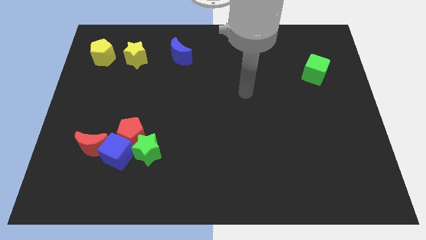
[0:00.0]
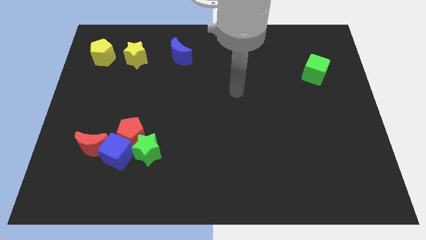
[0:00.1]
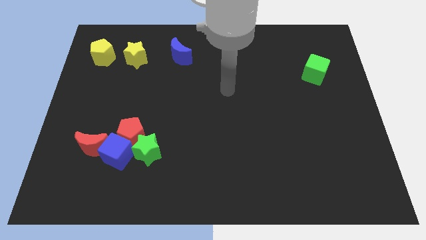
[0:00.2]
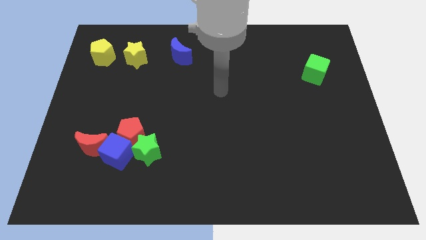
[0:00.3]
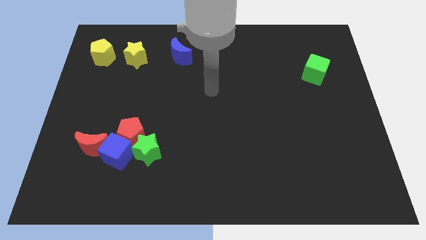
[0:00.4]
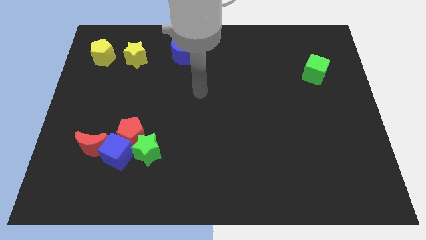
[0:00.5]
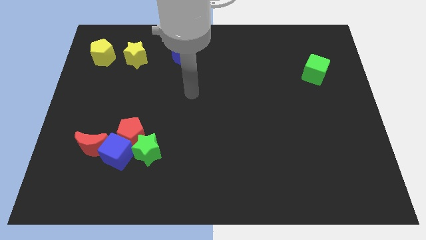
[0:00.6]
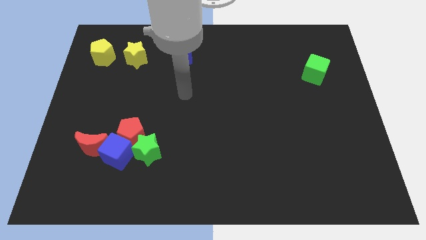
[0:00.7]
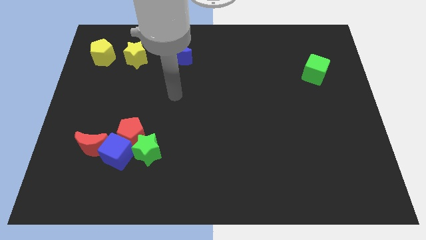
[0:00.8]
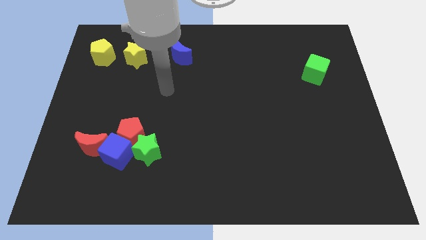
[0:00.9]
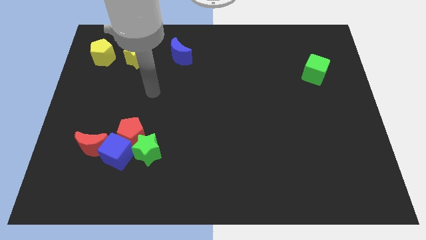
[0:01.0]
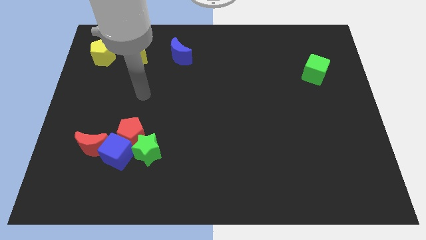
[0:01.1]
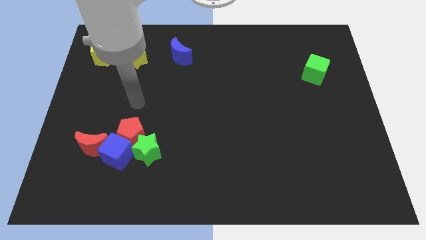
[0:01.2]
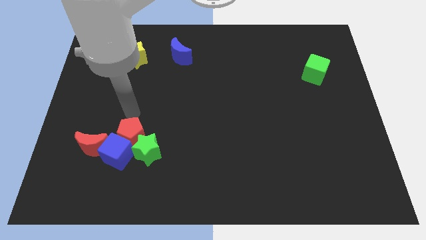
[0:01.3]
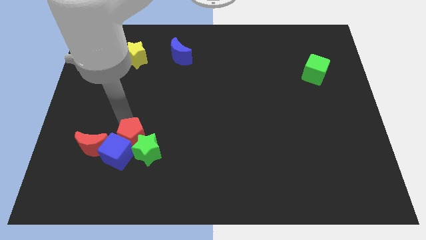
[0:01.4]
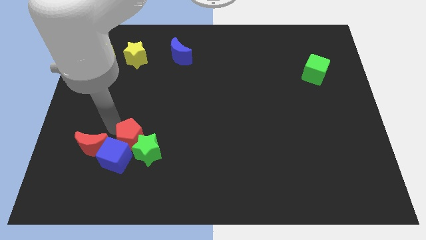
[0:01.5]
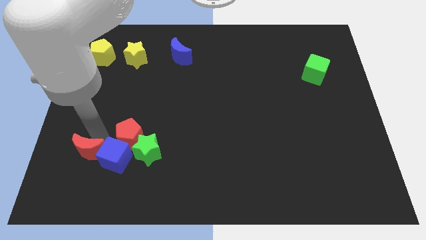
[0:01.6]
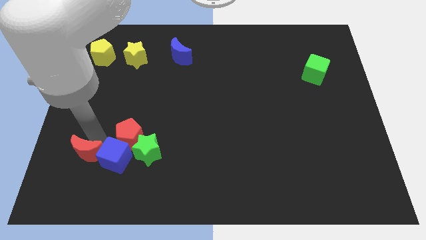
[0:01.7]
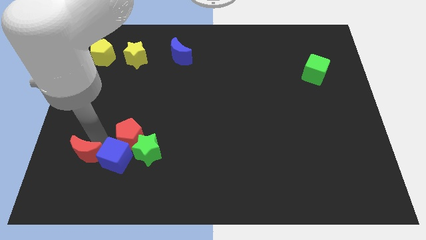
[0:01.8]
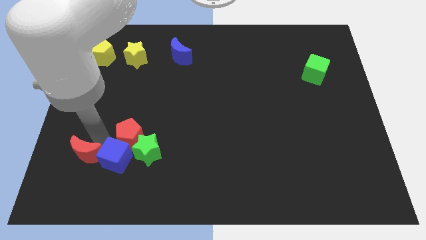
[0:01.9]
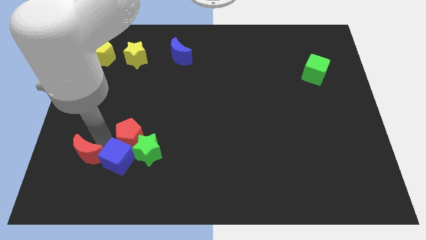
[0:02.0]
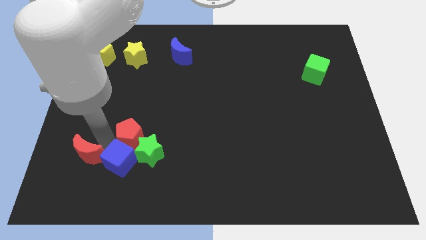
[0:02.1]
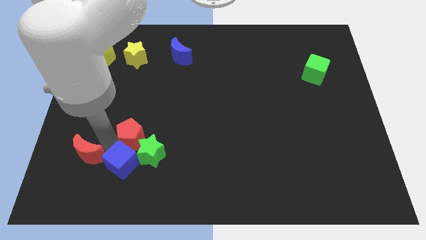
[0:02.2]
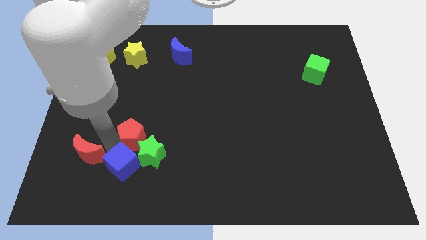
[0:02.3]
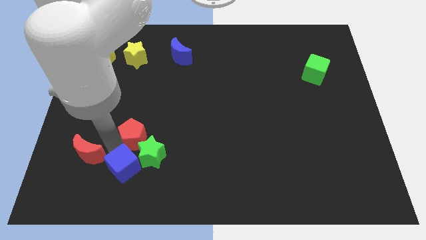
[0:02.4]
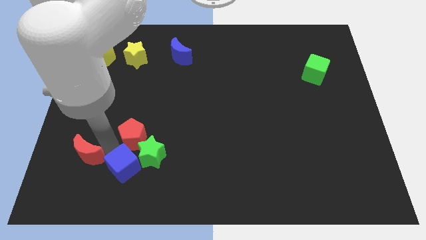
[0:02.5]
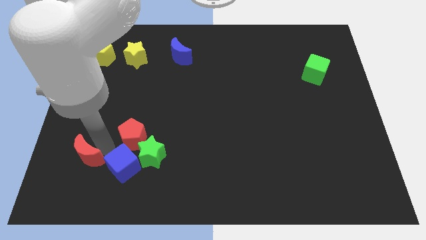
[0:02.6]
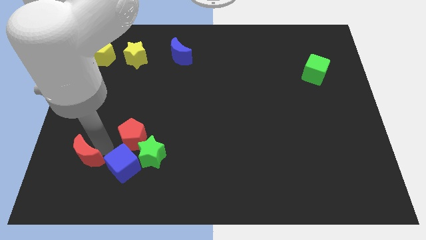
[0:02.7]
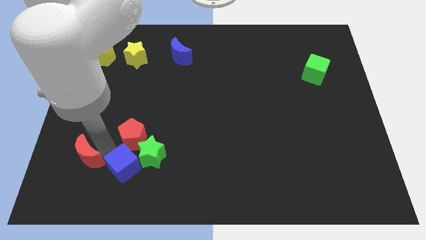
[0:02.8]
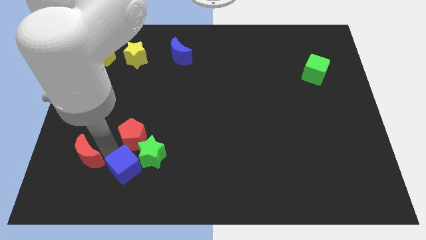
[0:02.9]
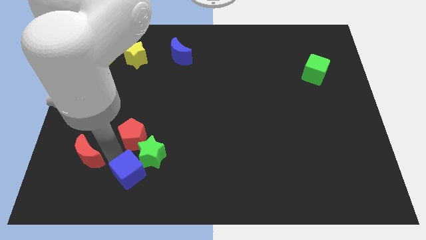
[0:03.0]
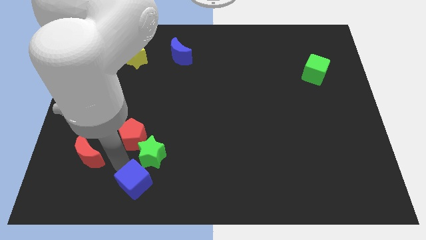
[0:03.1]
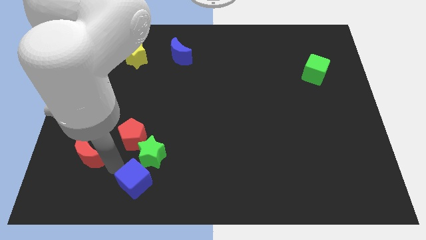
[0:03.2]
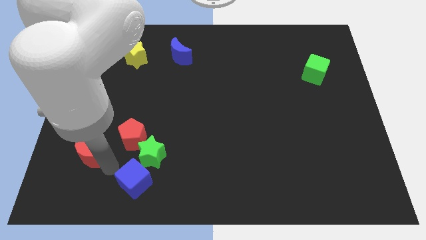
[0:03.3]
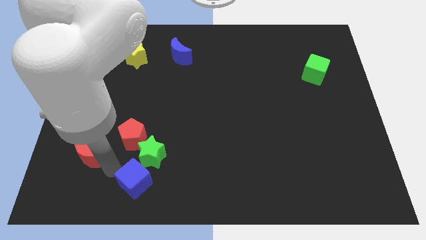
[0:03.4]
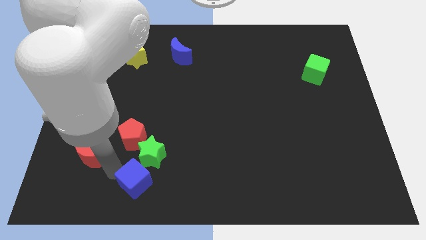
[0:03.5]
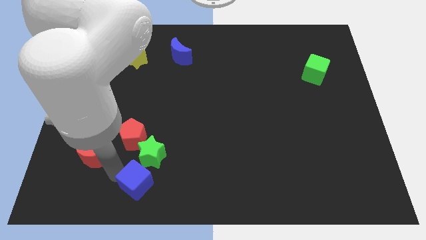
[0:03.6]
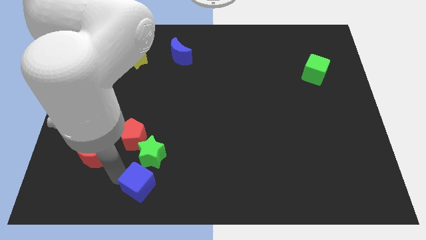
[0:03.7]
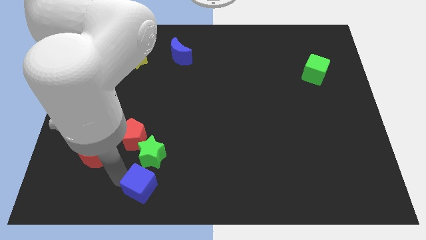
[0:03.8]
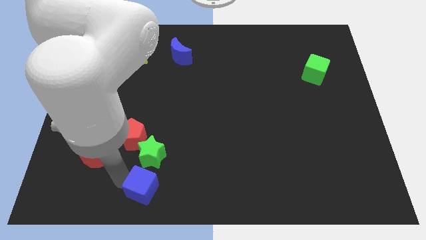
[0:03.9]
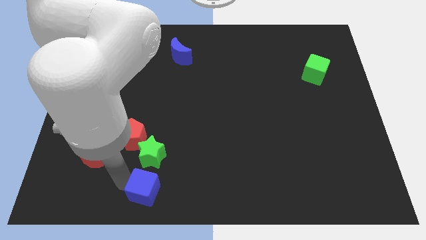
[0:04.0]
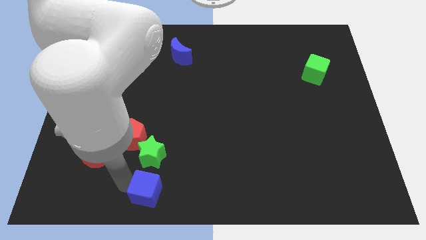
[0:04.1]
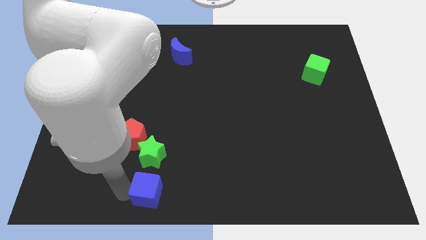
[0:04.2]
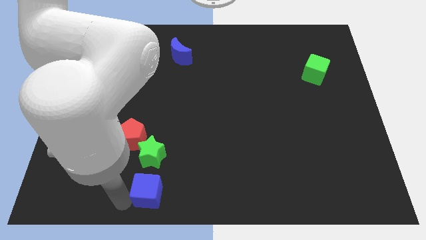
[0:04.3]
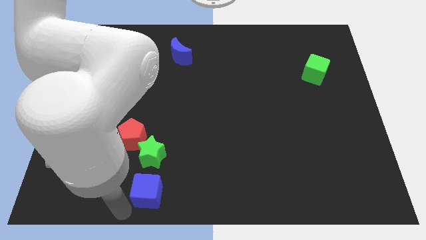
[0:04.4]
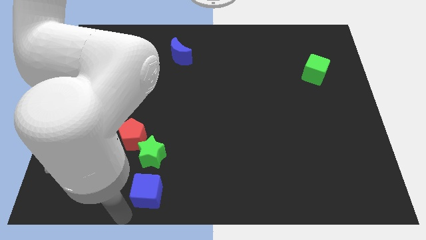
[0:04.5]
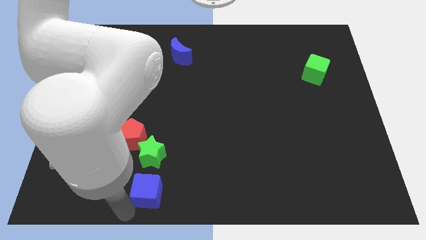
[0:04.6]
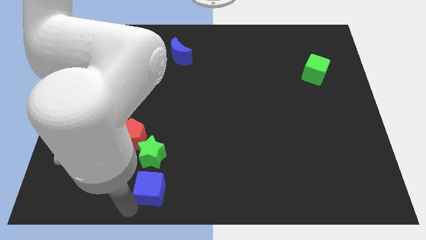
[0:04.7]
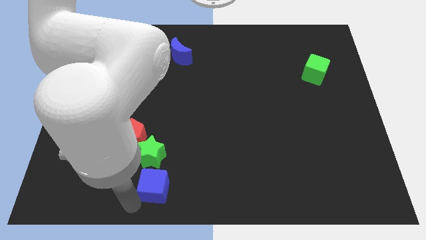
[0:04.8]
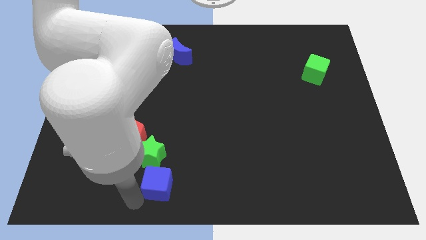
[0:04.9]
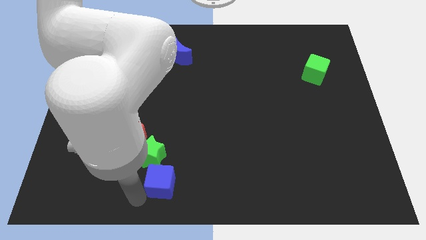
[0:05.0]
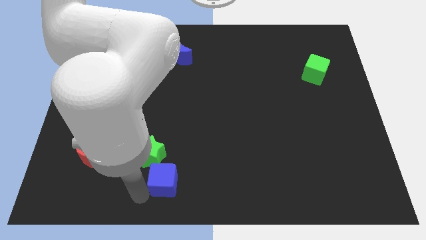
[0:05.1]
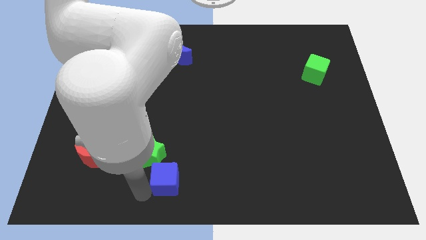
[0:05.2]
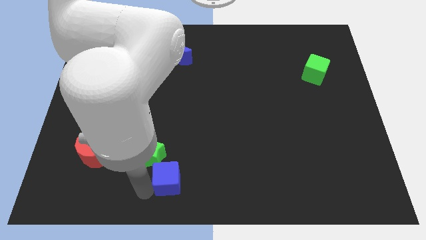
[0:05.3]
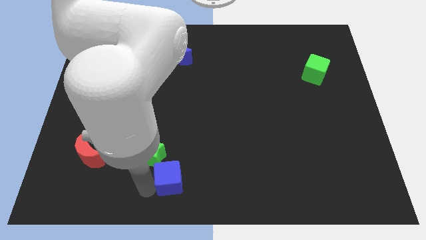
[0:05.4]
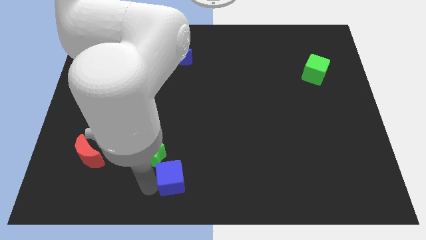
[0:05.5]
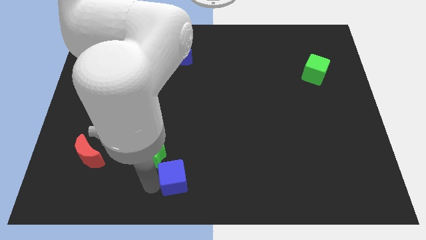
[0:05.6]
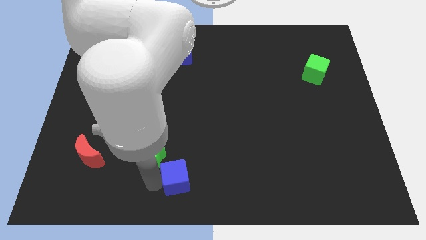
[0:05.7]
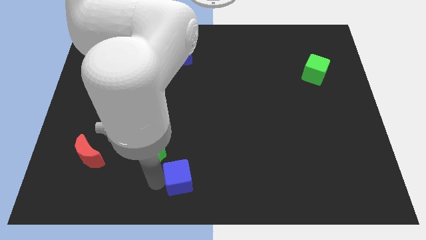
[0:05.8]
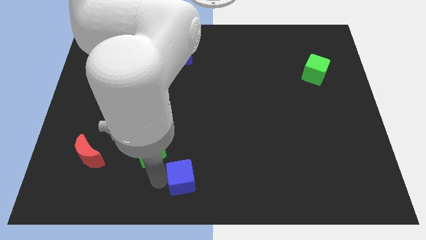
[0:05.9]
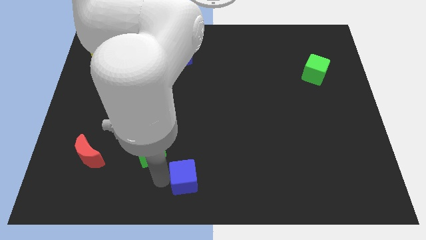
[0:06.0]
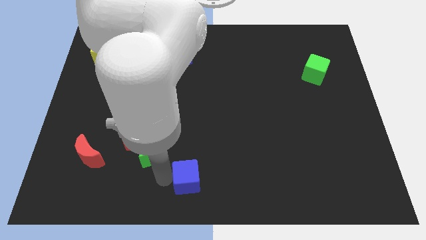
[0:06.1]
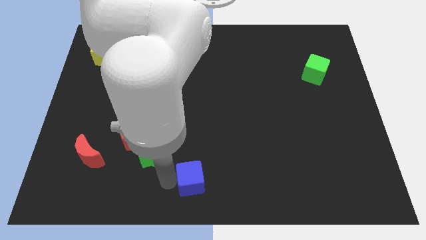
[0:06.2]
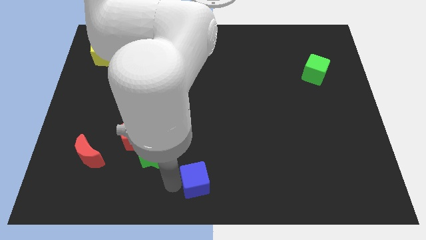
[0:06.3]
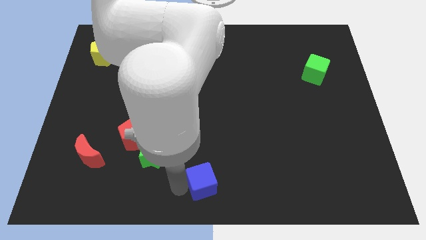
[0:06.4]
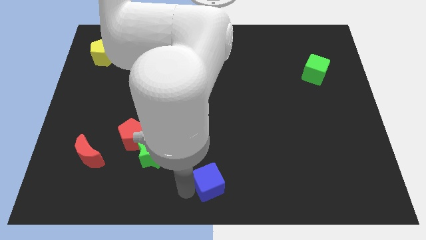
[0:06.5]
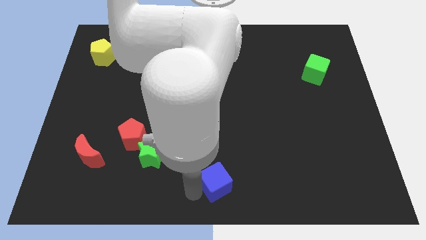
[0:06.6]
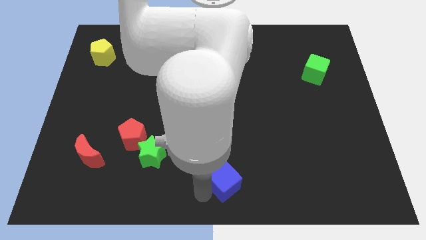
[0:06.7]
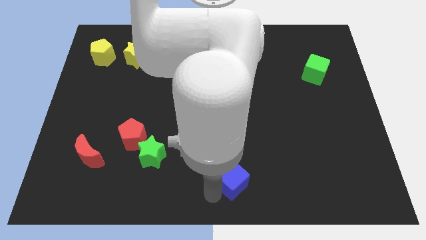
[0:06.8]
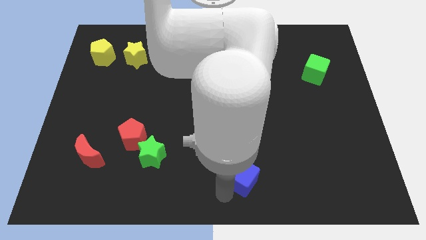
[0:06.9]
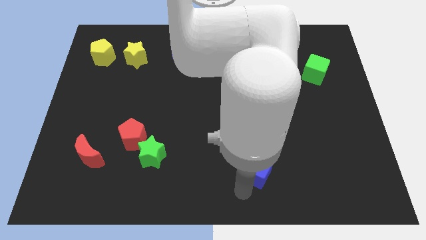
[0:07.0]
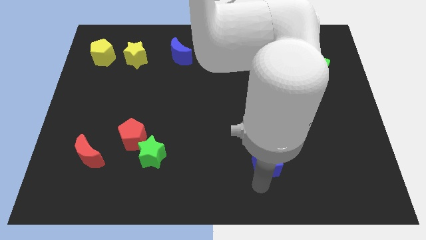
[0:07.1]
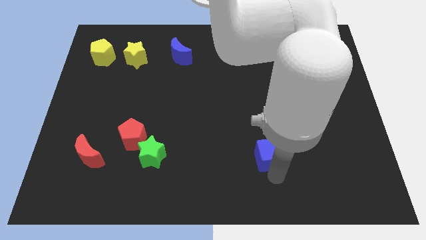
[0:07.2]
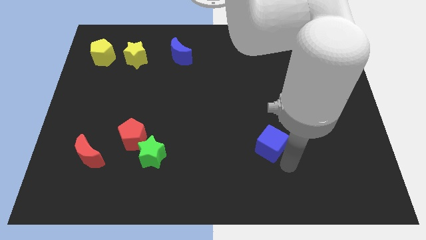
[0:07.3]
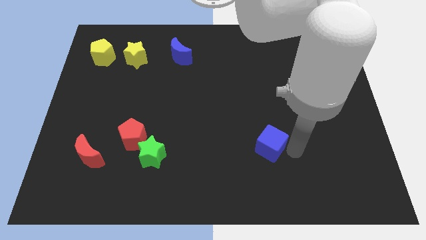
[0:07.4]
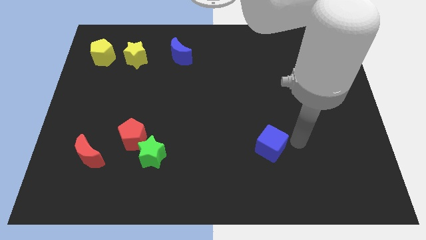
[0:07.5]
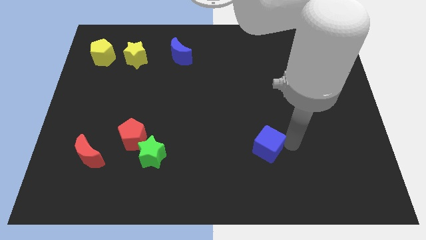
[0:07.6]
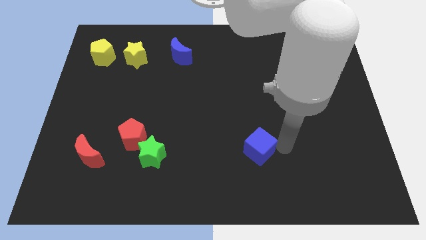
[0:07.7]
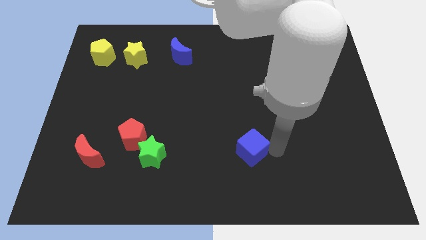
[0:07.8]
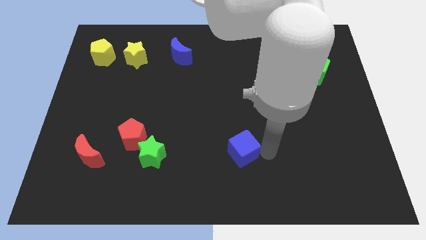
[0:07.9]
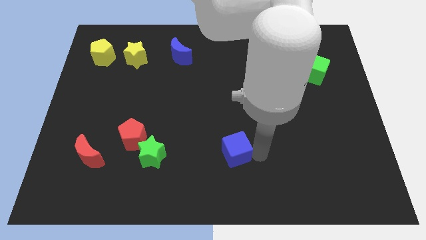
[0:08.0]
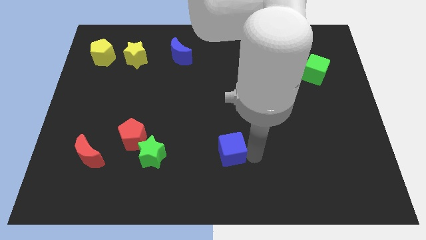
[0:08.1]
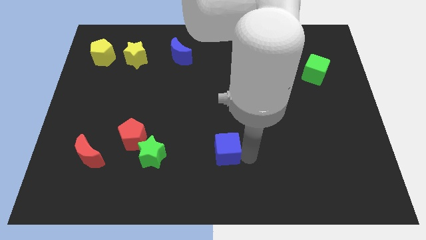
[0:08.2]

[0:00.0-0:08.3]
move the blue cube to the right side of the green star
